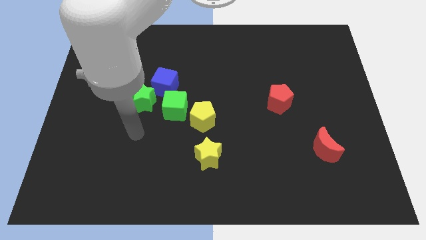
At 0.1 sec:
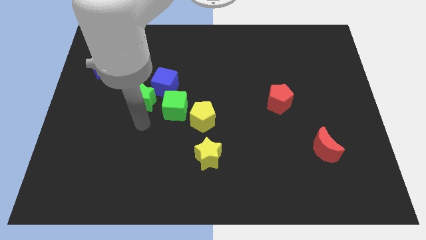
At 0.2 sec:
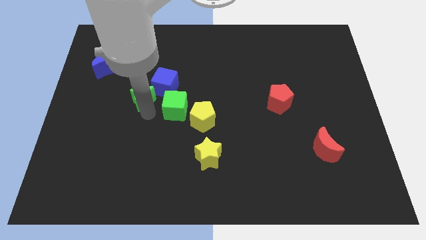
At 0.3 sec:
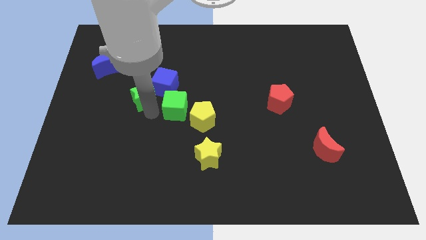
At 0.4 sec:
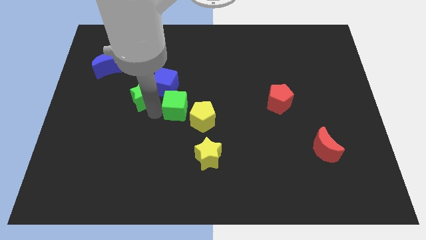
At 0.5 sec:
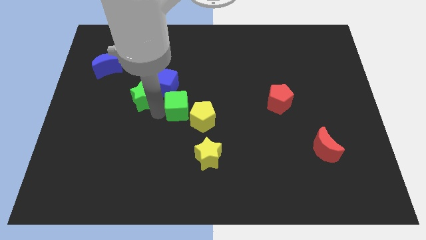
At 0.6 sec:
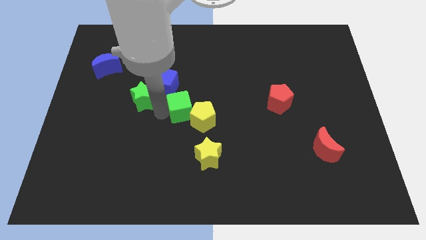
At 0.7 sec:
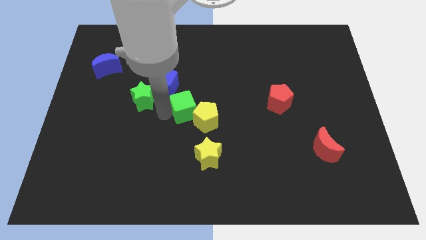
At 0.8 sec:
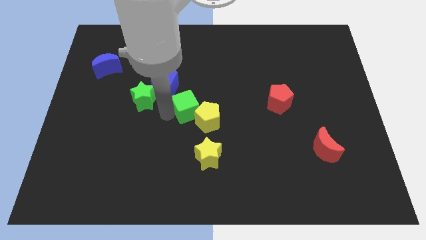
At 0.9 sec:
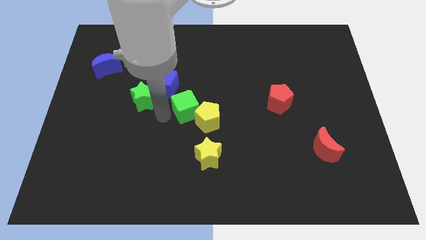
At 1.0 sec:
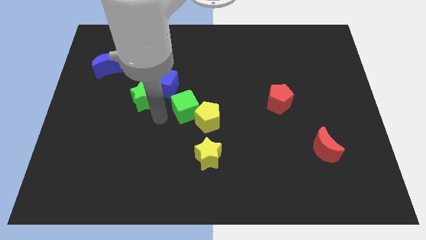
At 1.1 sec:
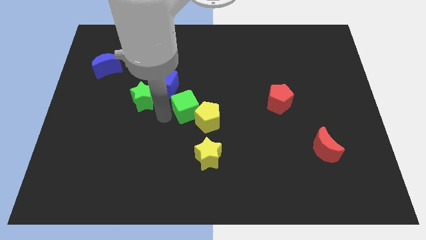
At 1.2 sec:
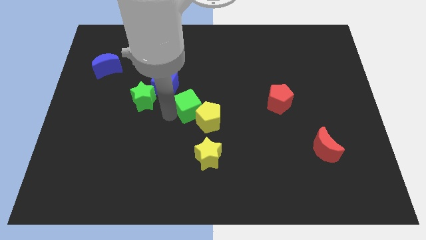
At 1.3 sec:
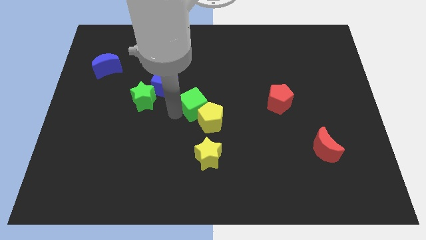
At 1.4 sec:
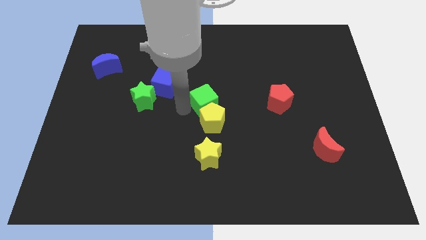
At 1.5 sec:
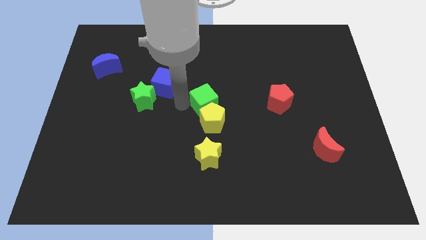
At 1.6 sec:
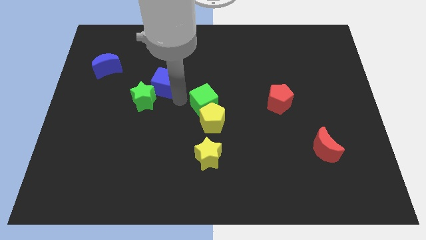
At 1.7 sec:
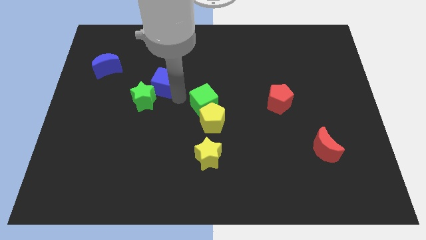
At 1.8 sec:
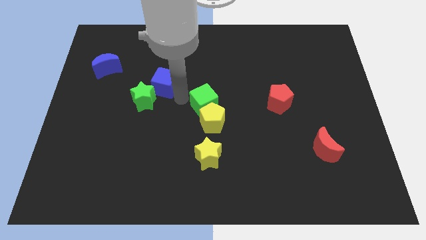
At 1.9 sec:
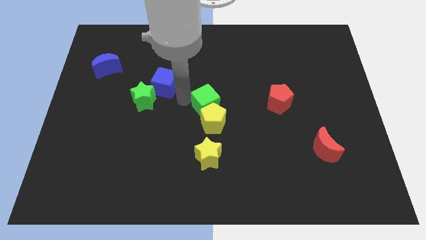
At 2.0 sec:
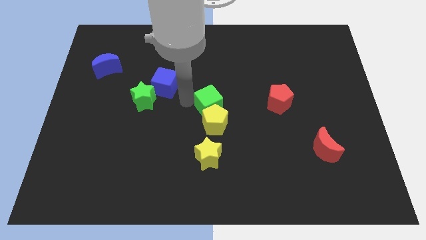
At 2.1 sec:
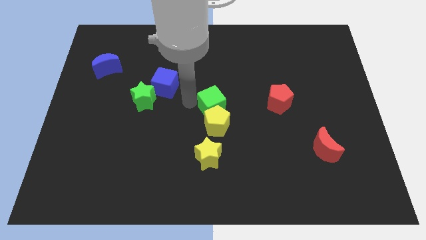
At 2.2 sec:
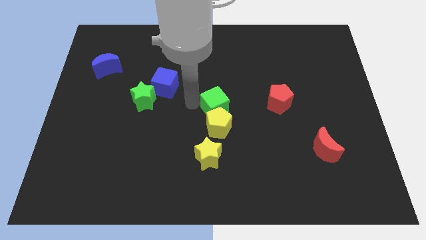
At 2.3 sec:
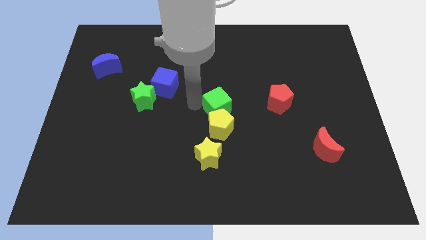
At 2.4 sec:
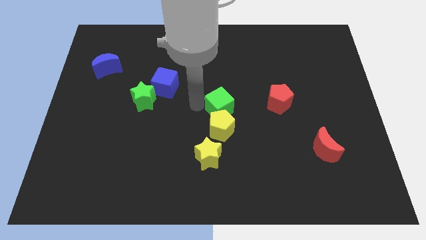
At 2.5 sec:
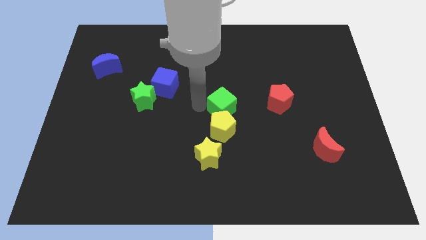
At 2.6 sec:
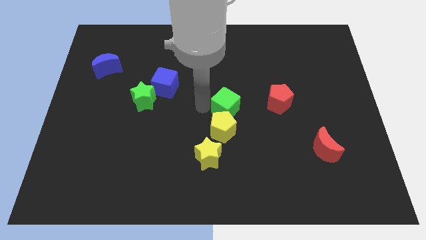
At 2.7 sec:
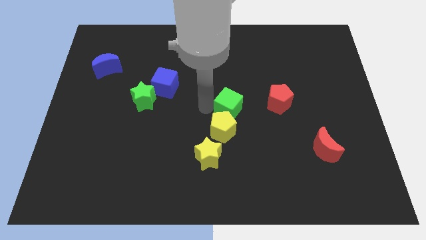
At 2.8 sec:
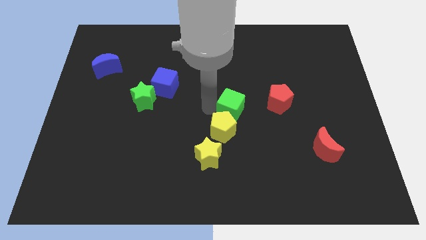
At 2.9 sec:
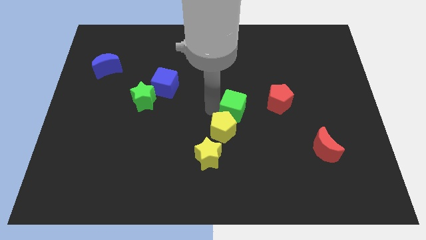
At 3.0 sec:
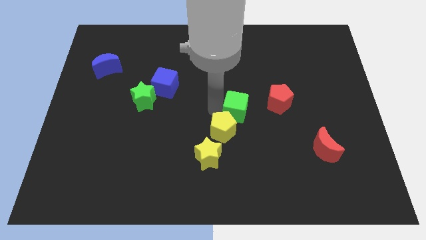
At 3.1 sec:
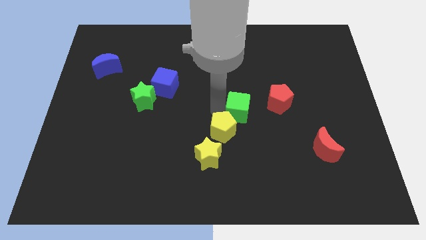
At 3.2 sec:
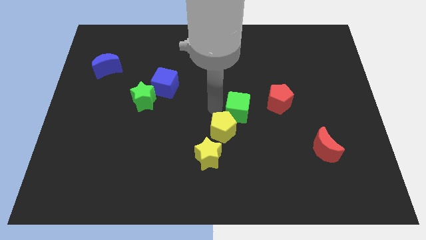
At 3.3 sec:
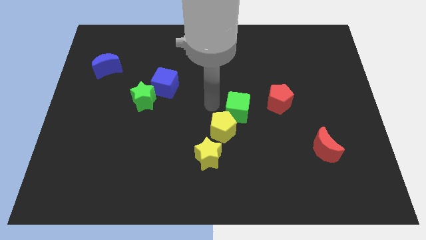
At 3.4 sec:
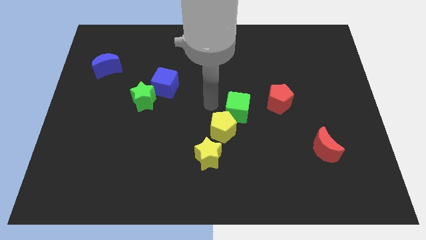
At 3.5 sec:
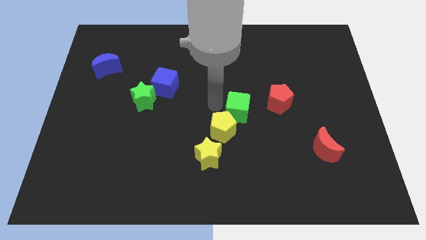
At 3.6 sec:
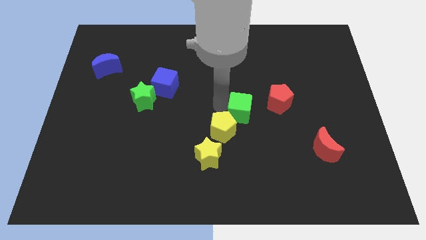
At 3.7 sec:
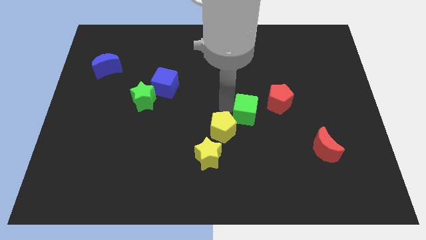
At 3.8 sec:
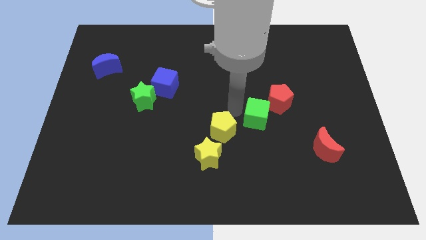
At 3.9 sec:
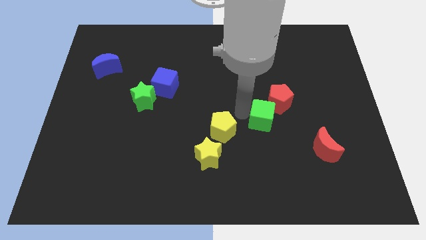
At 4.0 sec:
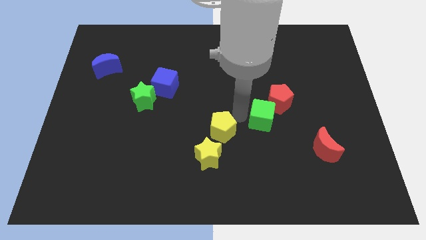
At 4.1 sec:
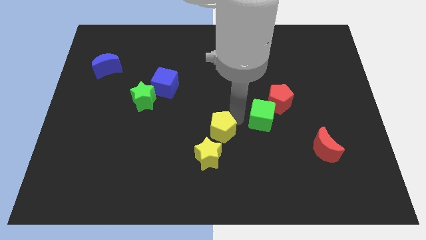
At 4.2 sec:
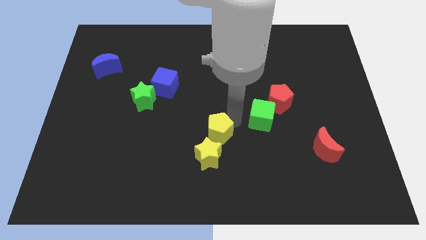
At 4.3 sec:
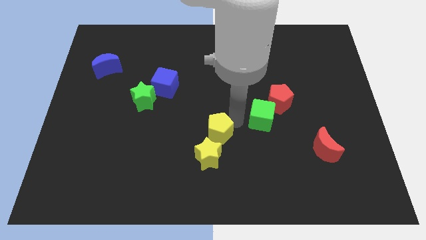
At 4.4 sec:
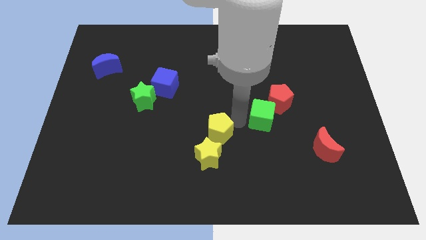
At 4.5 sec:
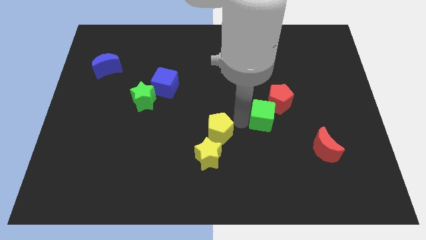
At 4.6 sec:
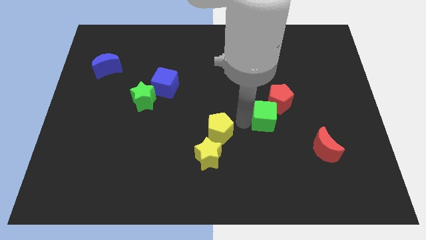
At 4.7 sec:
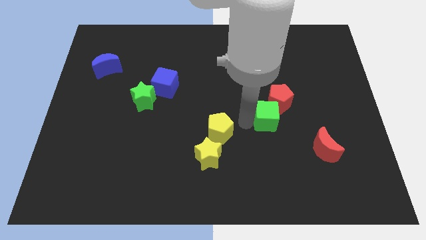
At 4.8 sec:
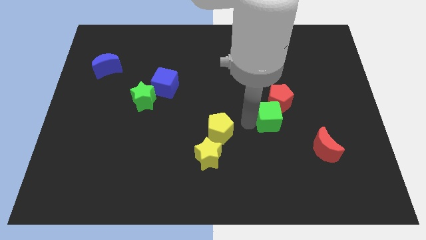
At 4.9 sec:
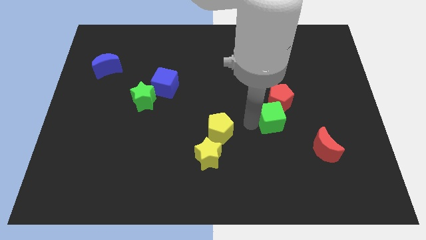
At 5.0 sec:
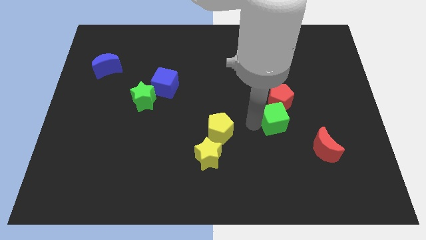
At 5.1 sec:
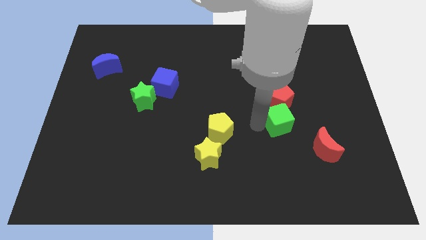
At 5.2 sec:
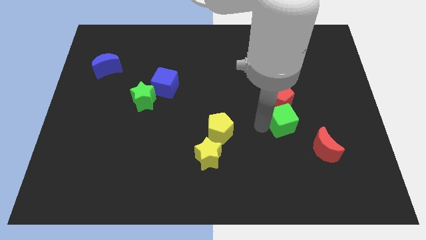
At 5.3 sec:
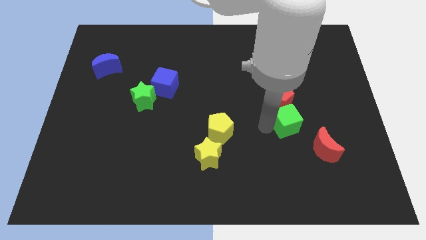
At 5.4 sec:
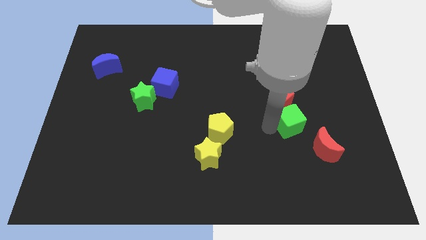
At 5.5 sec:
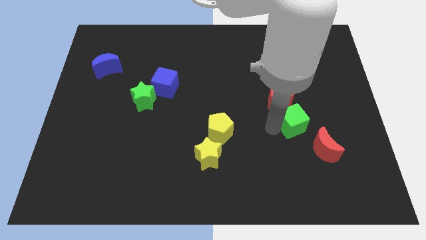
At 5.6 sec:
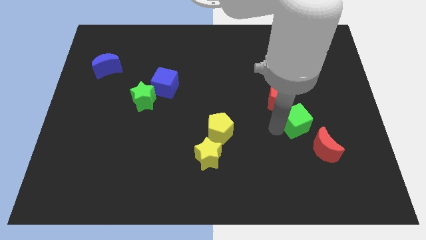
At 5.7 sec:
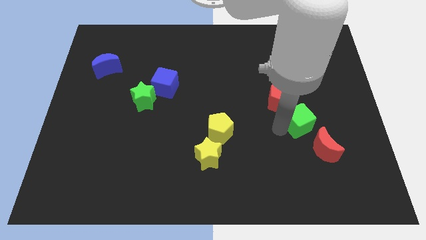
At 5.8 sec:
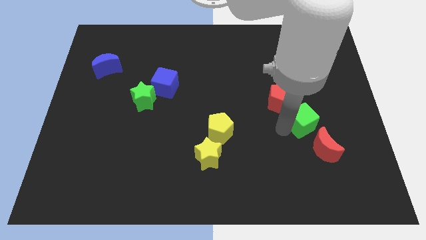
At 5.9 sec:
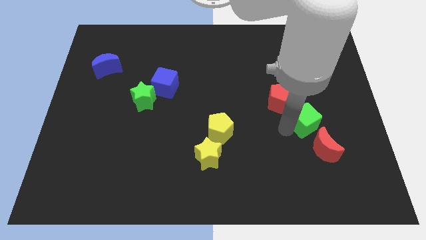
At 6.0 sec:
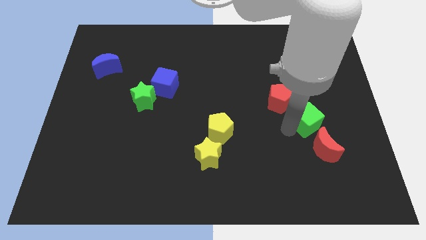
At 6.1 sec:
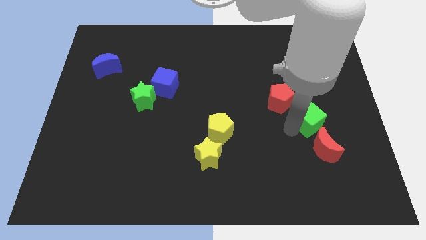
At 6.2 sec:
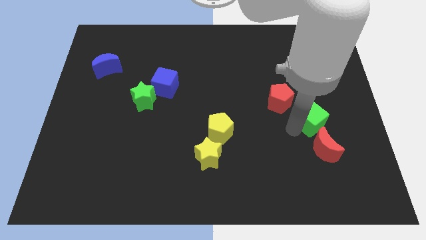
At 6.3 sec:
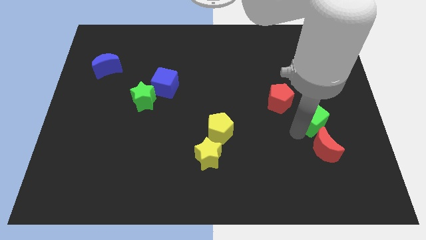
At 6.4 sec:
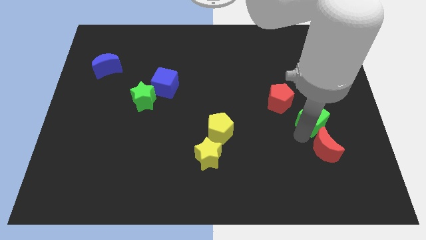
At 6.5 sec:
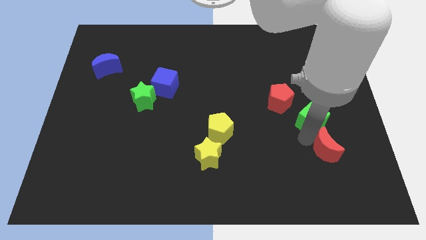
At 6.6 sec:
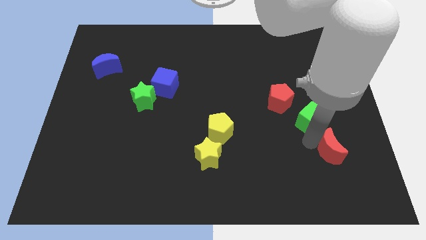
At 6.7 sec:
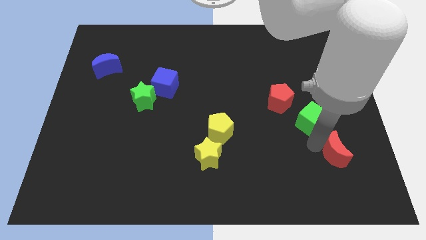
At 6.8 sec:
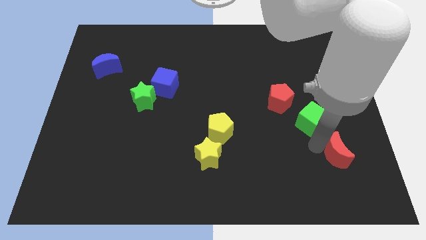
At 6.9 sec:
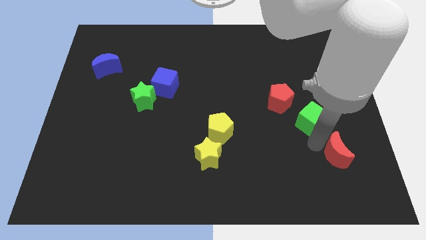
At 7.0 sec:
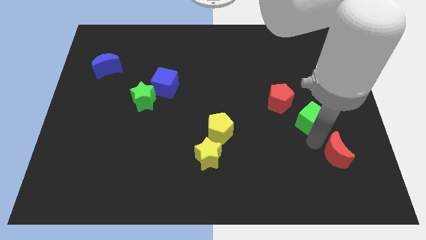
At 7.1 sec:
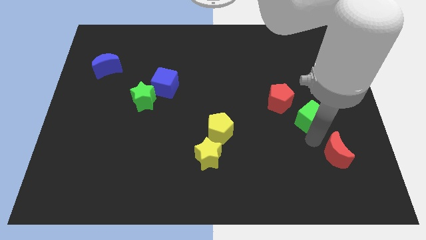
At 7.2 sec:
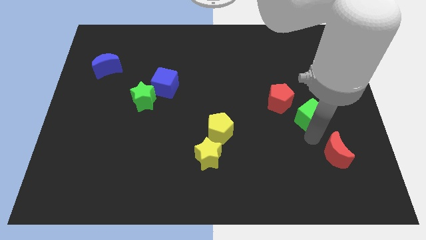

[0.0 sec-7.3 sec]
move the green cube to the right side of the red pentagon

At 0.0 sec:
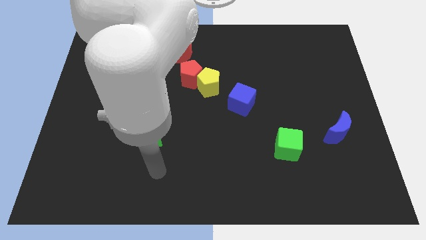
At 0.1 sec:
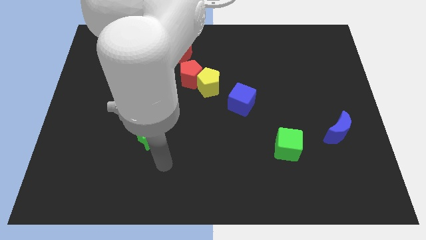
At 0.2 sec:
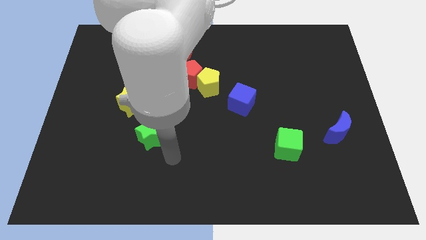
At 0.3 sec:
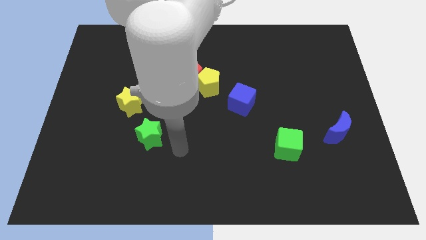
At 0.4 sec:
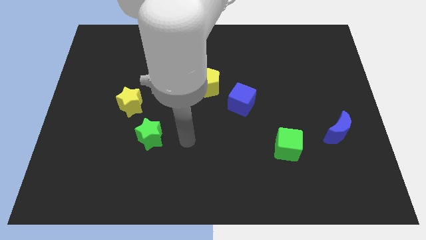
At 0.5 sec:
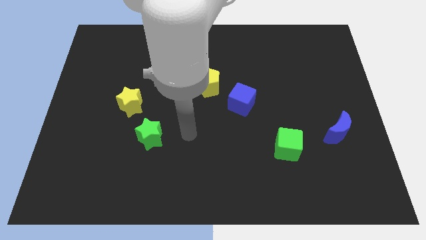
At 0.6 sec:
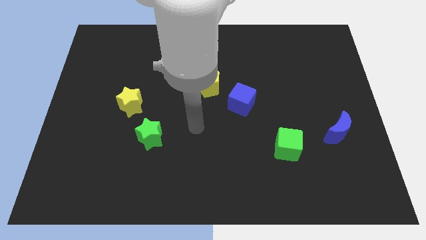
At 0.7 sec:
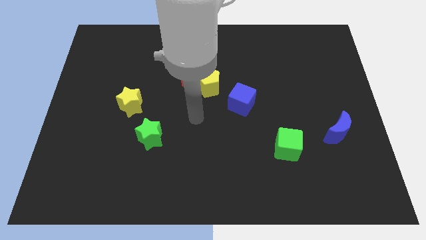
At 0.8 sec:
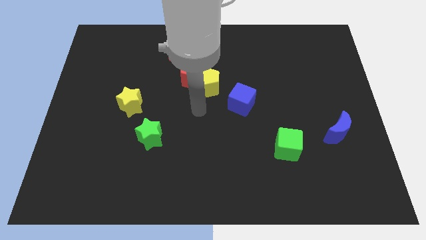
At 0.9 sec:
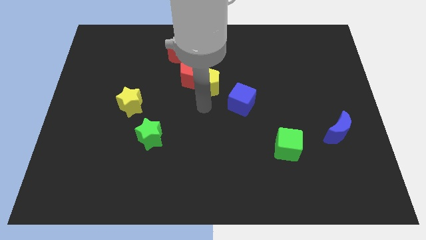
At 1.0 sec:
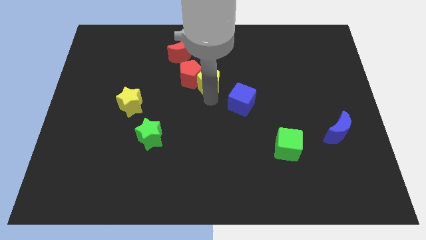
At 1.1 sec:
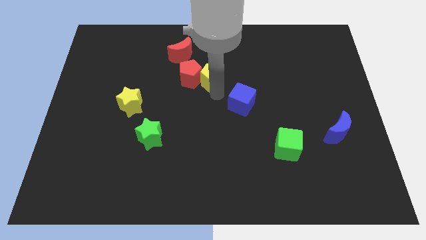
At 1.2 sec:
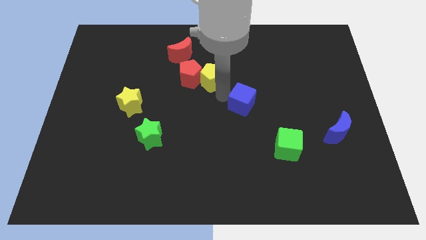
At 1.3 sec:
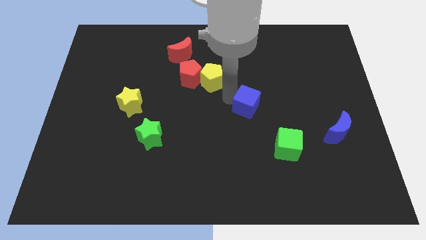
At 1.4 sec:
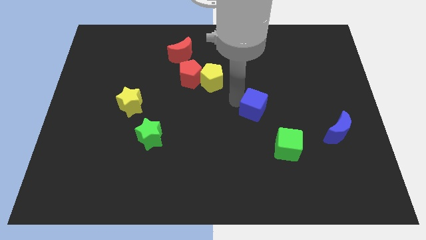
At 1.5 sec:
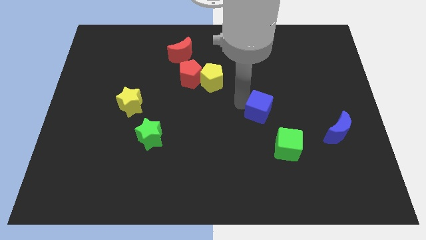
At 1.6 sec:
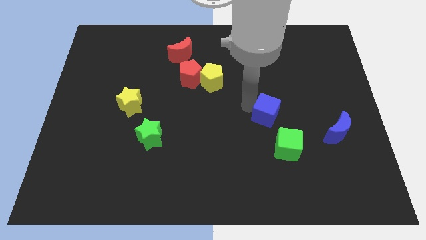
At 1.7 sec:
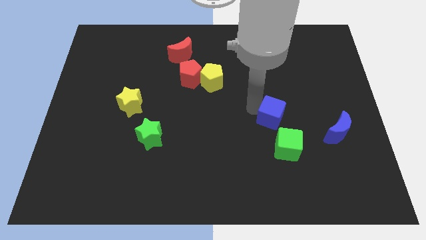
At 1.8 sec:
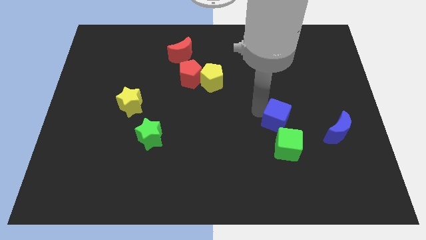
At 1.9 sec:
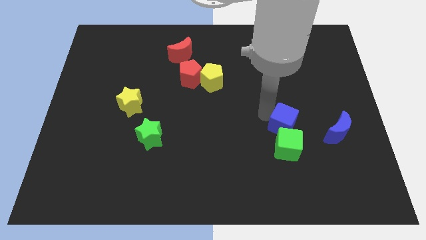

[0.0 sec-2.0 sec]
put the blue cube to the top right side of the green cube
